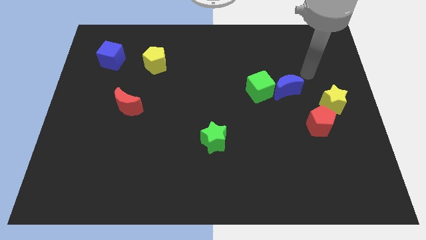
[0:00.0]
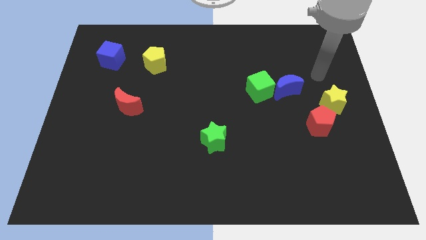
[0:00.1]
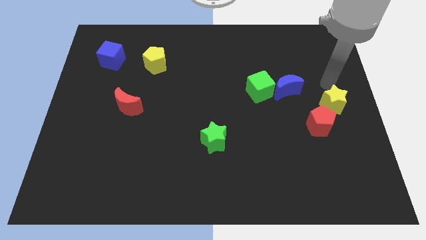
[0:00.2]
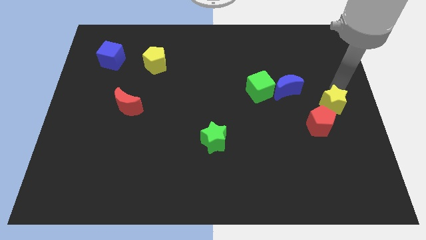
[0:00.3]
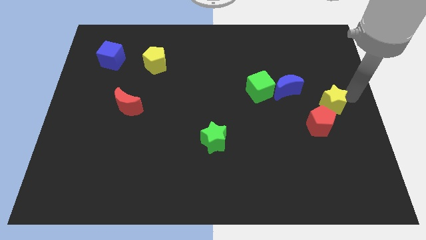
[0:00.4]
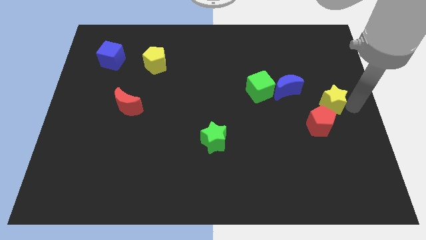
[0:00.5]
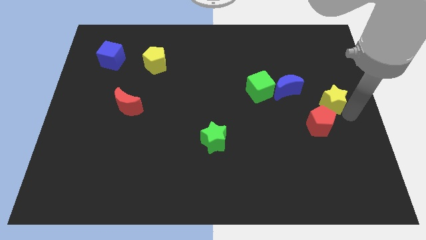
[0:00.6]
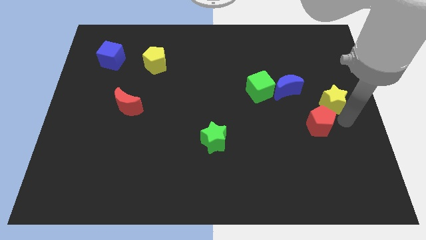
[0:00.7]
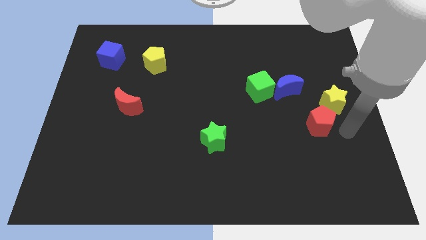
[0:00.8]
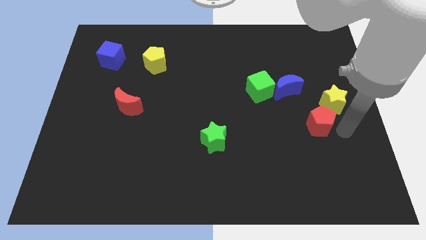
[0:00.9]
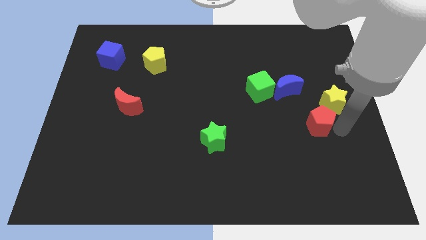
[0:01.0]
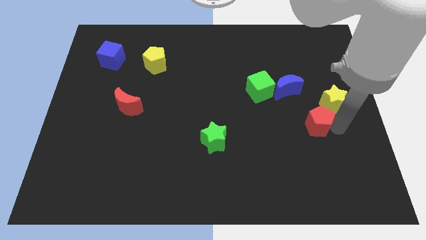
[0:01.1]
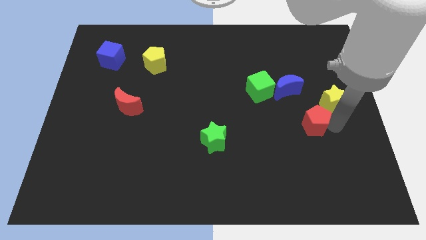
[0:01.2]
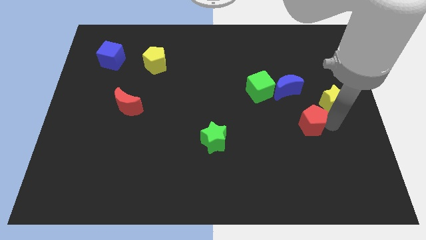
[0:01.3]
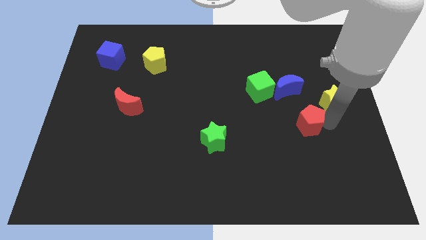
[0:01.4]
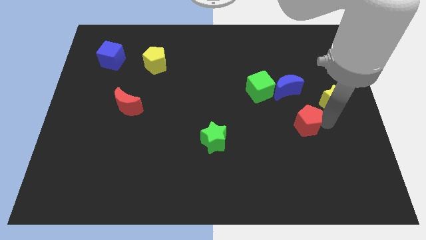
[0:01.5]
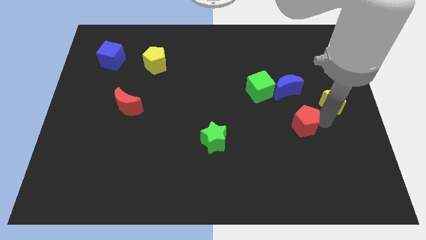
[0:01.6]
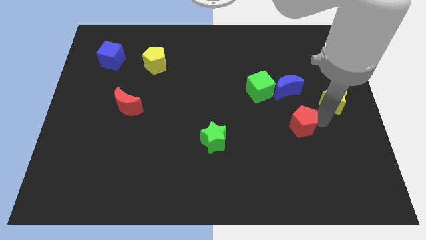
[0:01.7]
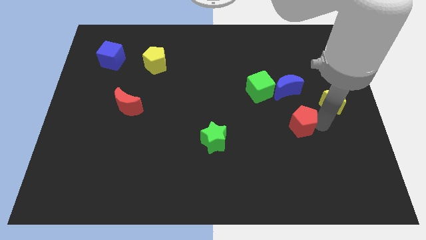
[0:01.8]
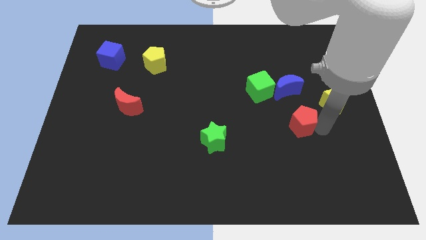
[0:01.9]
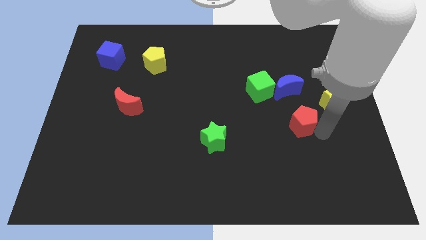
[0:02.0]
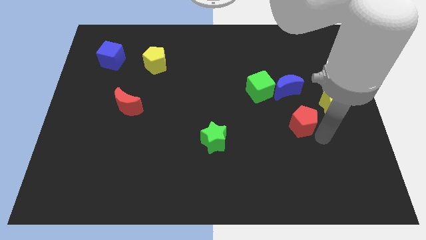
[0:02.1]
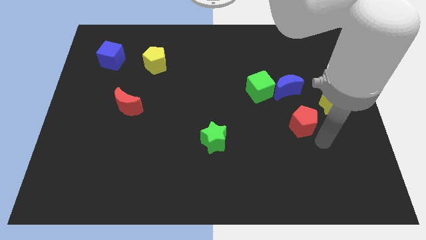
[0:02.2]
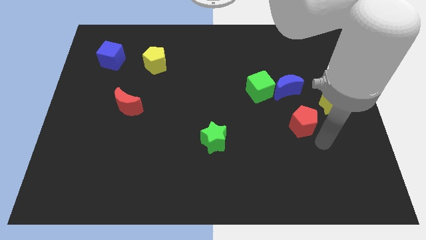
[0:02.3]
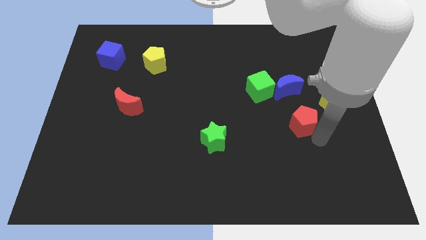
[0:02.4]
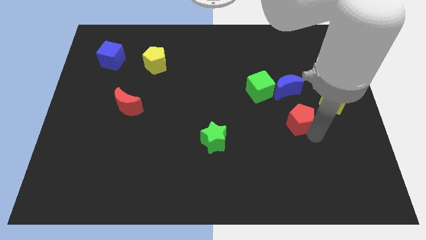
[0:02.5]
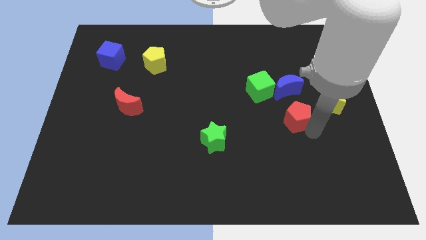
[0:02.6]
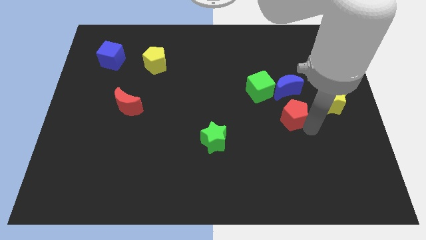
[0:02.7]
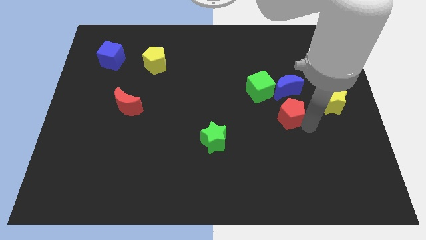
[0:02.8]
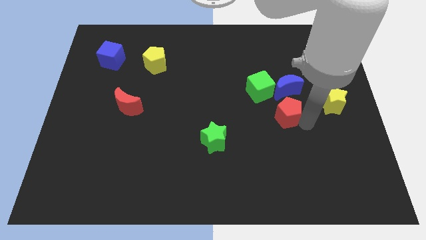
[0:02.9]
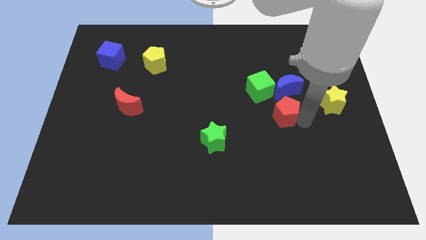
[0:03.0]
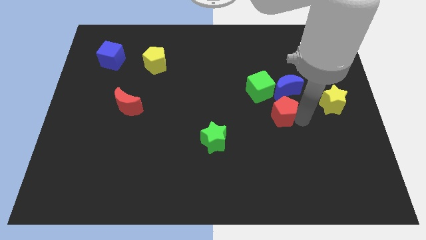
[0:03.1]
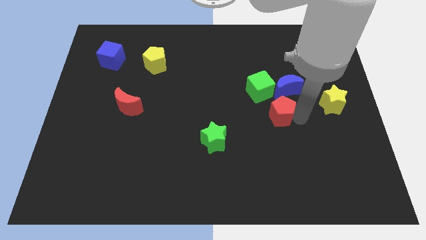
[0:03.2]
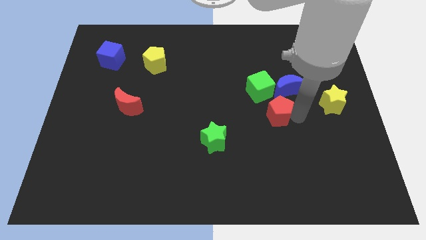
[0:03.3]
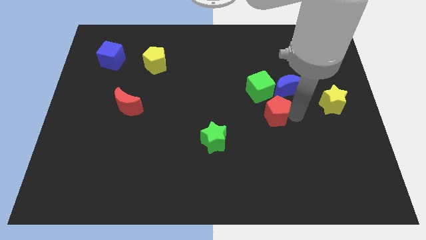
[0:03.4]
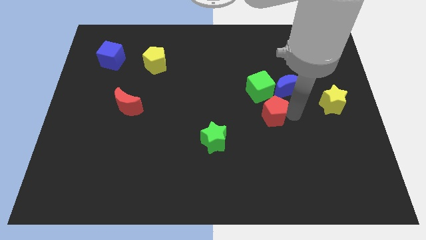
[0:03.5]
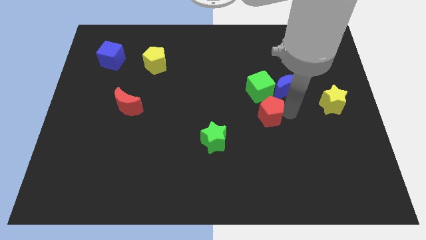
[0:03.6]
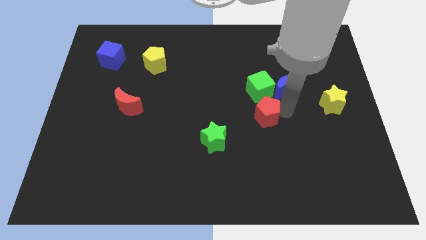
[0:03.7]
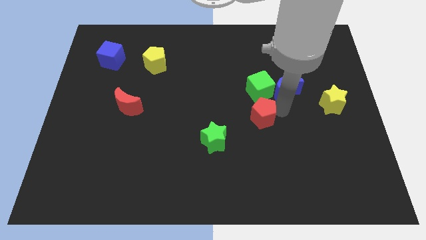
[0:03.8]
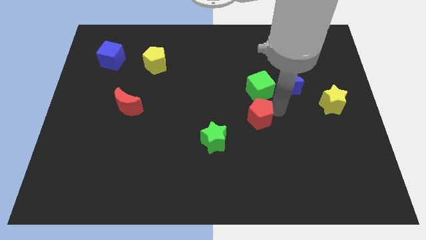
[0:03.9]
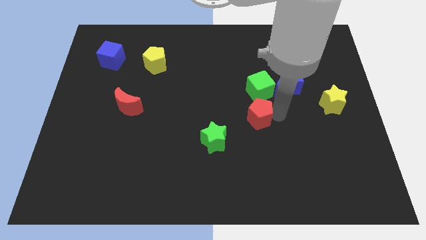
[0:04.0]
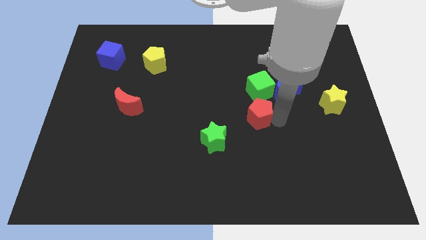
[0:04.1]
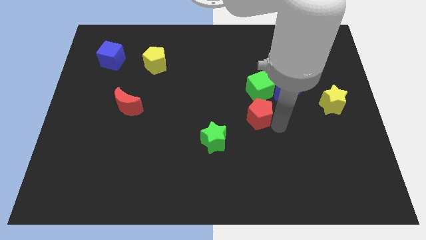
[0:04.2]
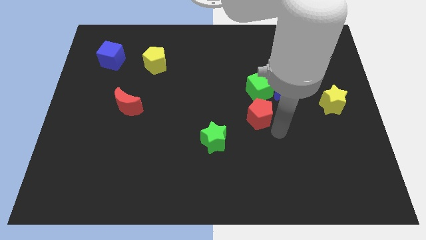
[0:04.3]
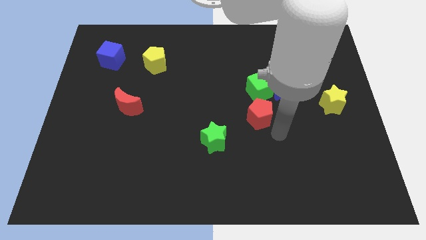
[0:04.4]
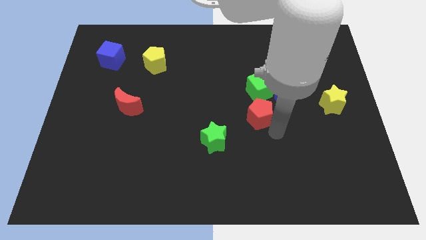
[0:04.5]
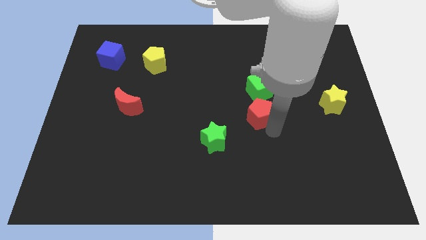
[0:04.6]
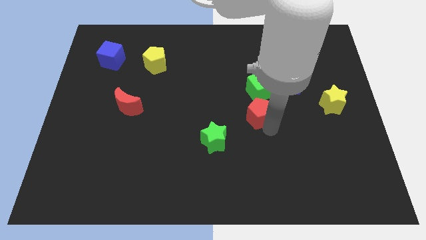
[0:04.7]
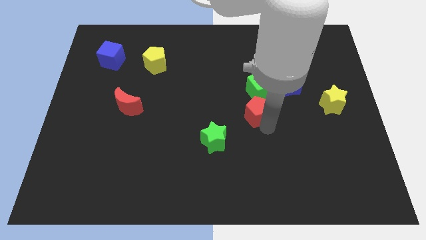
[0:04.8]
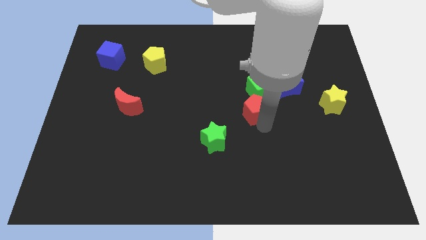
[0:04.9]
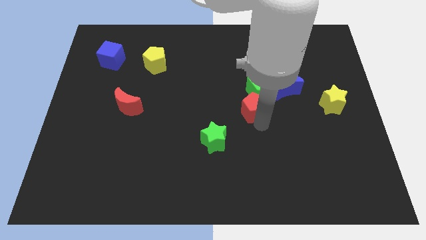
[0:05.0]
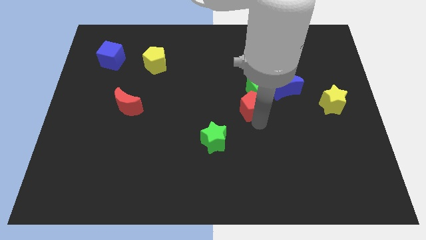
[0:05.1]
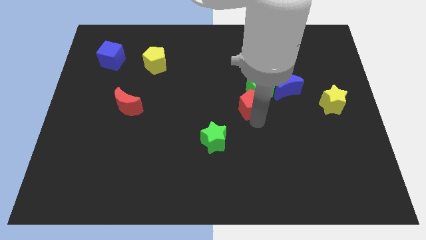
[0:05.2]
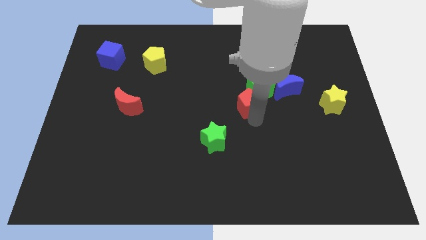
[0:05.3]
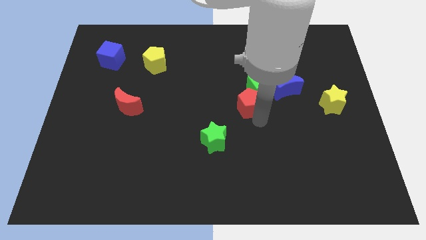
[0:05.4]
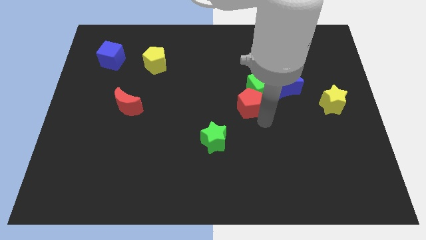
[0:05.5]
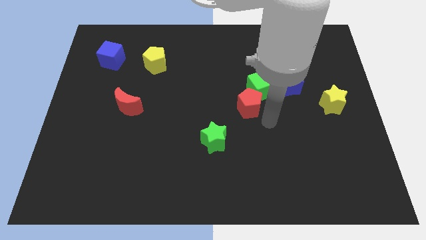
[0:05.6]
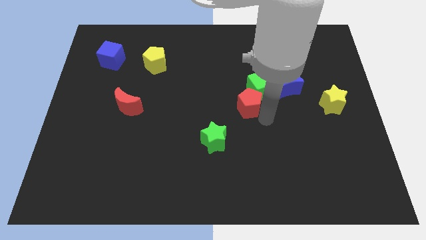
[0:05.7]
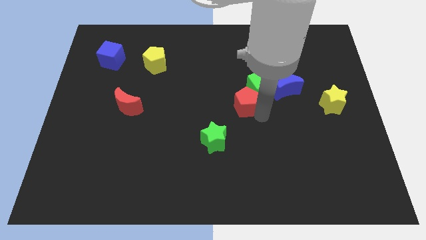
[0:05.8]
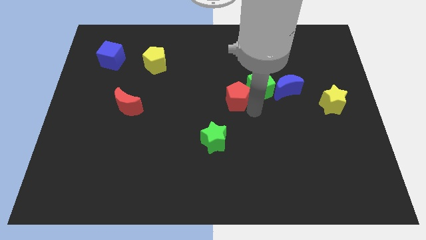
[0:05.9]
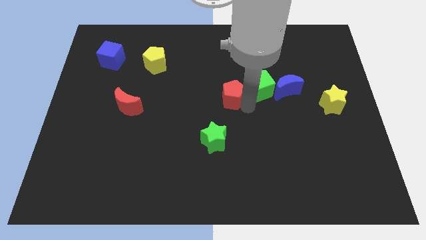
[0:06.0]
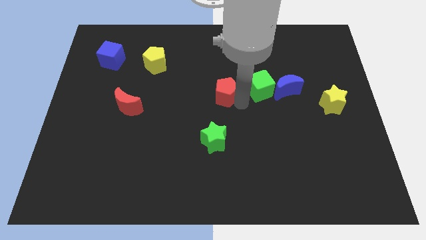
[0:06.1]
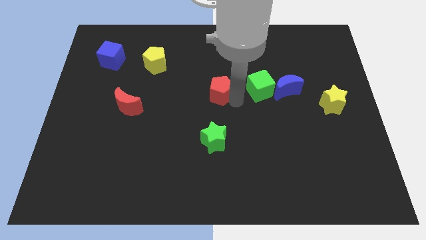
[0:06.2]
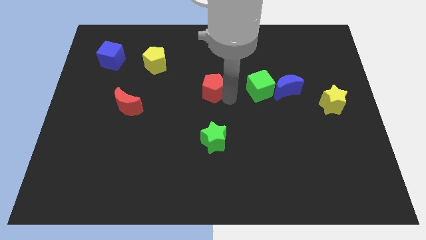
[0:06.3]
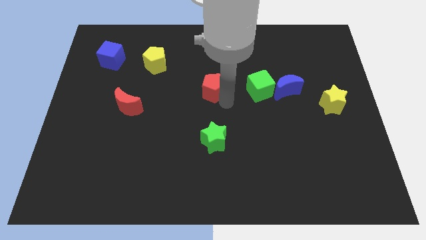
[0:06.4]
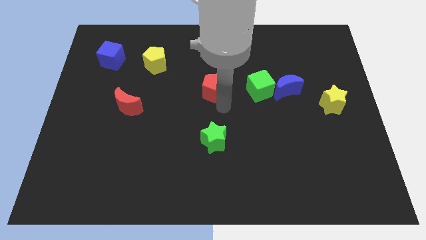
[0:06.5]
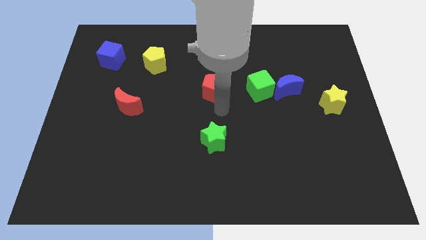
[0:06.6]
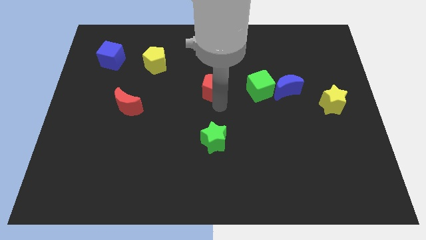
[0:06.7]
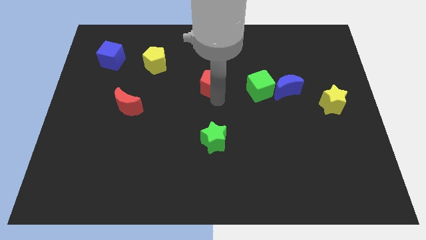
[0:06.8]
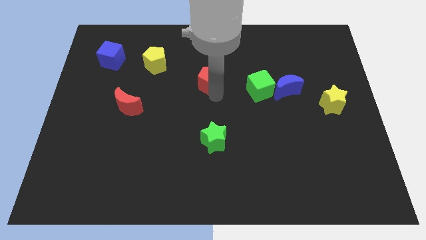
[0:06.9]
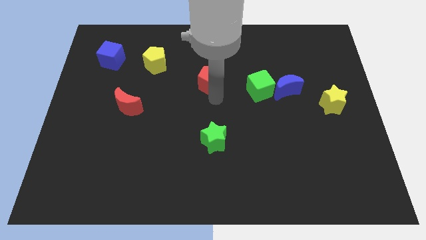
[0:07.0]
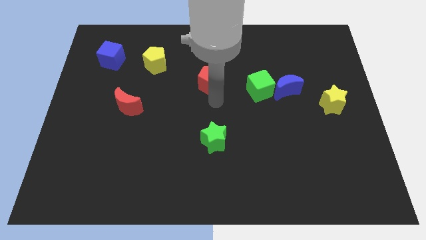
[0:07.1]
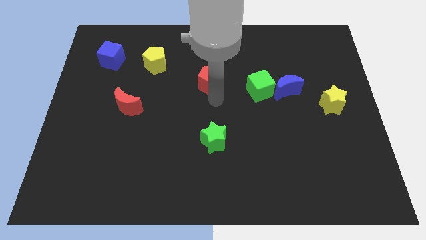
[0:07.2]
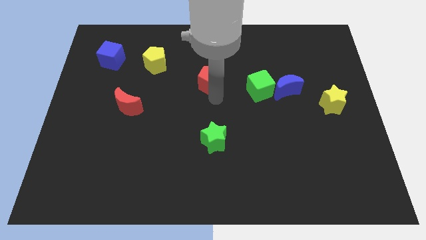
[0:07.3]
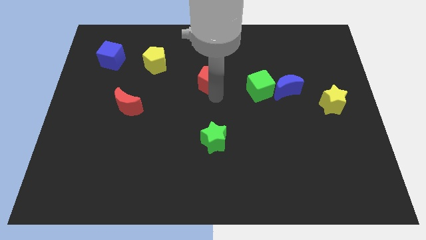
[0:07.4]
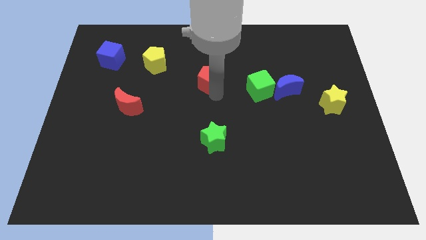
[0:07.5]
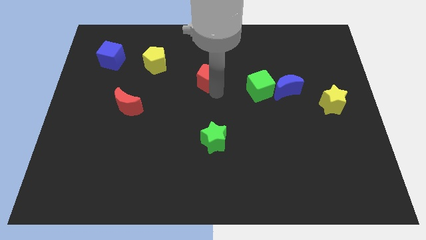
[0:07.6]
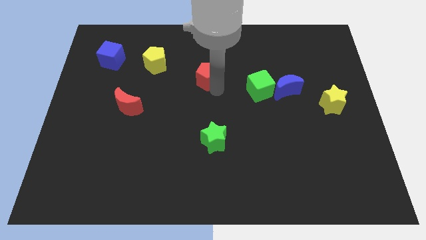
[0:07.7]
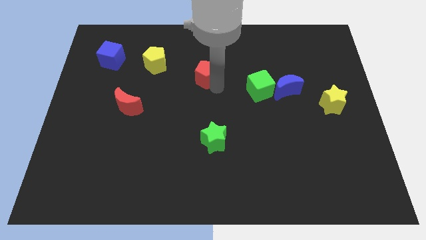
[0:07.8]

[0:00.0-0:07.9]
push the red pentagon to the right of the yellow pentagon
